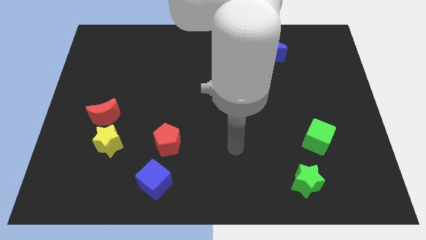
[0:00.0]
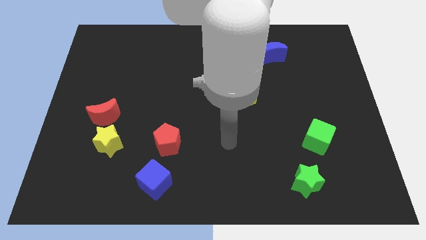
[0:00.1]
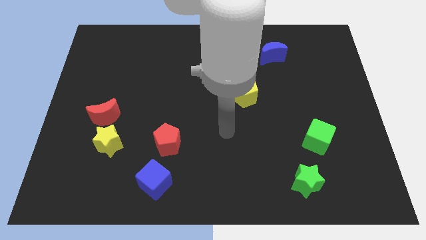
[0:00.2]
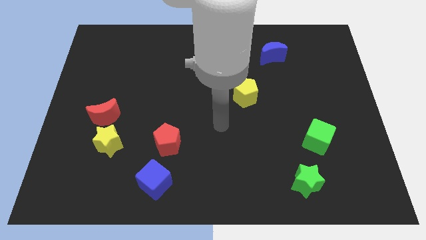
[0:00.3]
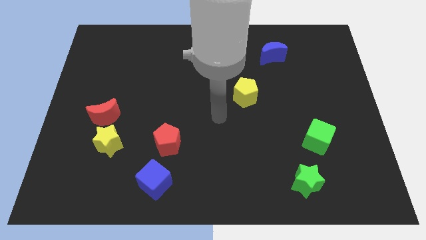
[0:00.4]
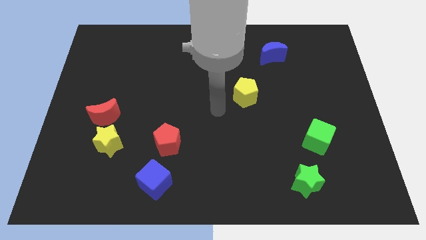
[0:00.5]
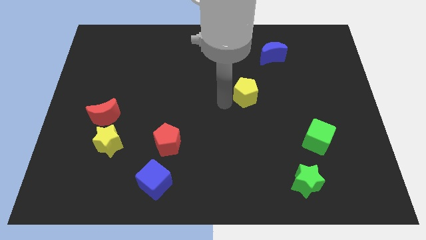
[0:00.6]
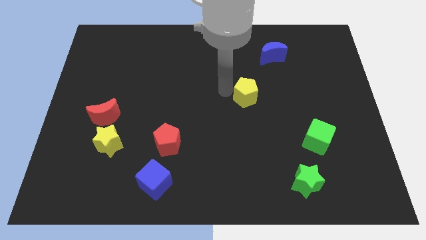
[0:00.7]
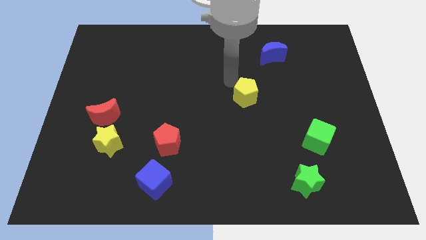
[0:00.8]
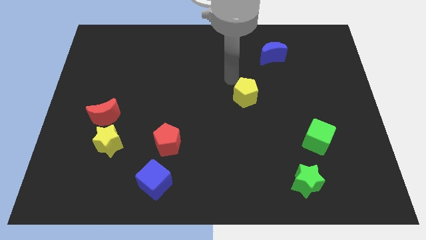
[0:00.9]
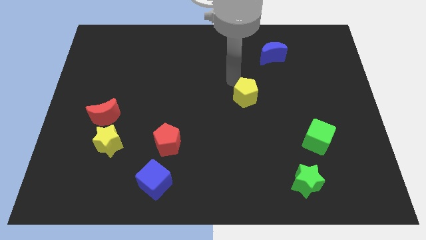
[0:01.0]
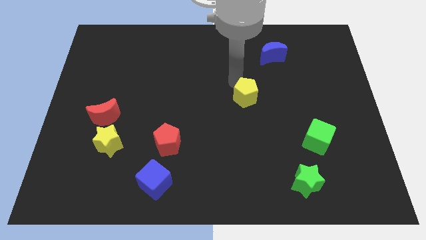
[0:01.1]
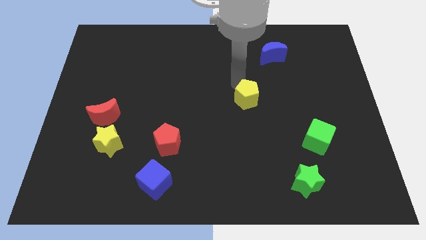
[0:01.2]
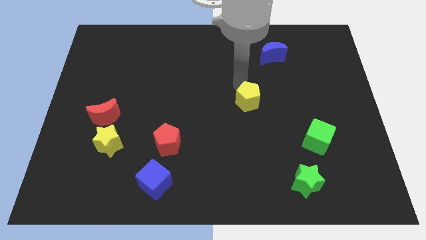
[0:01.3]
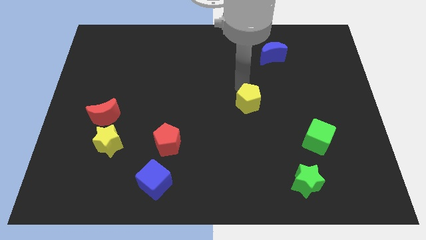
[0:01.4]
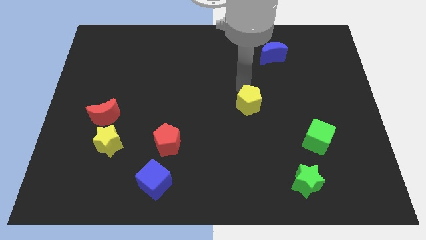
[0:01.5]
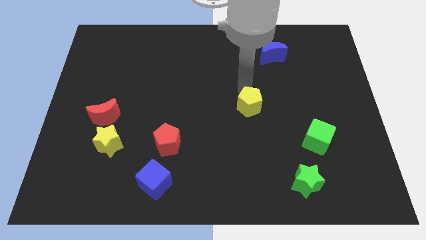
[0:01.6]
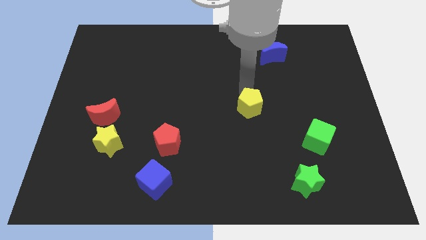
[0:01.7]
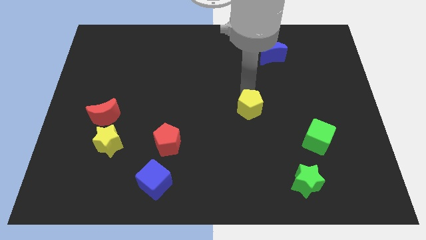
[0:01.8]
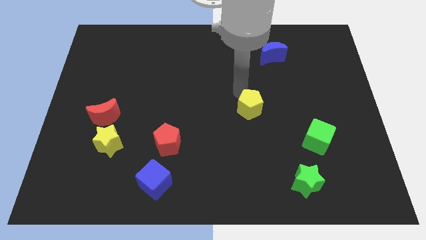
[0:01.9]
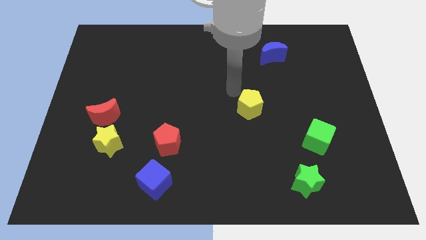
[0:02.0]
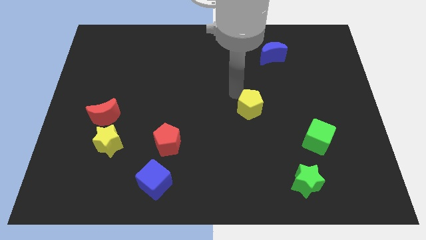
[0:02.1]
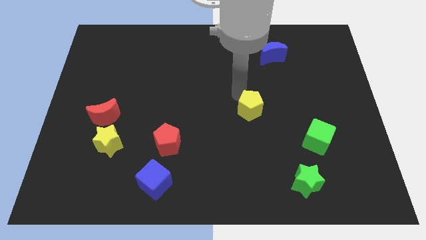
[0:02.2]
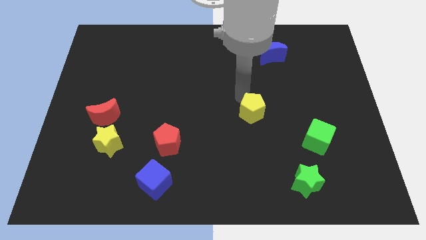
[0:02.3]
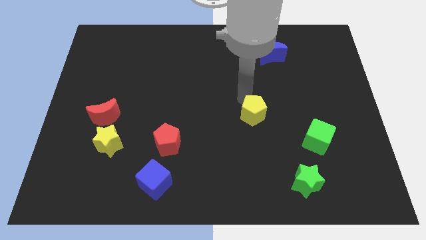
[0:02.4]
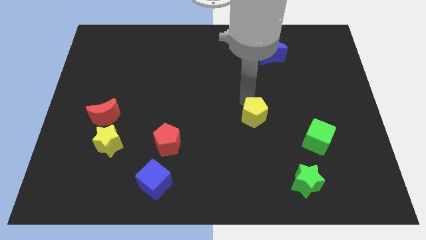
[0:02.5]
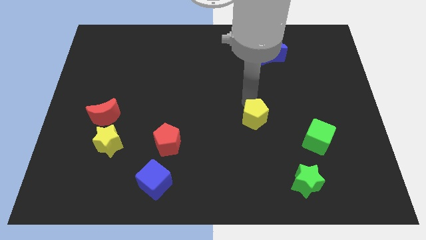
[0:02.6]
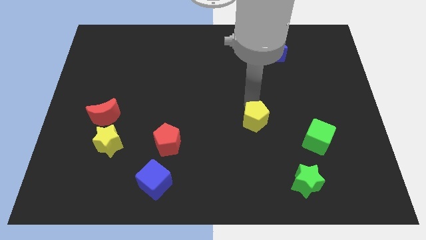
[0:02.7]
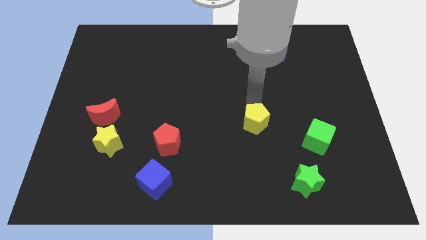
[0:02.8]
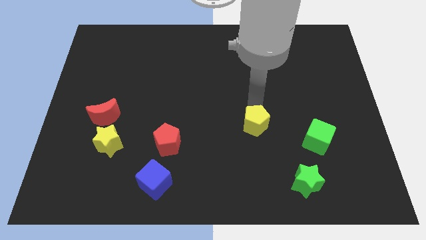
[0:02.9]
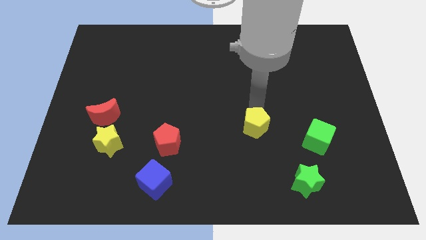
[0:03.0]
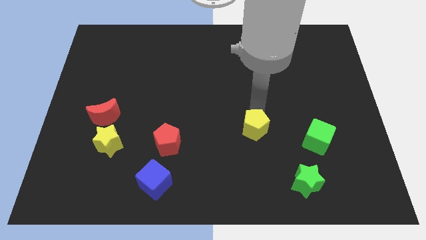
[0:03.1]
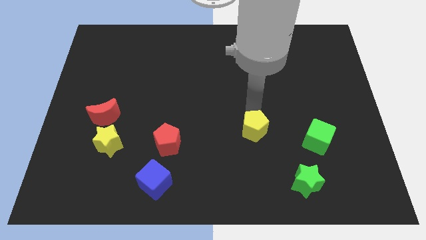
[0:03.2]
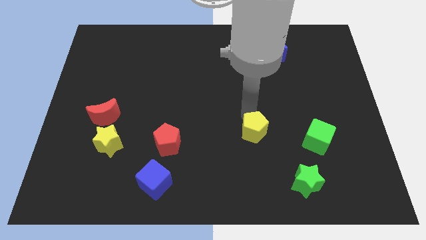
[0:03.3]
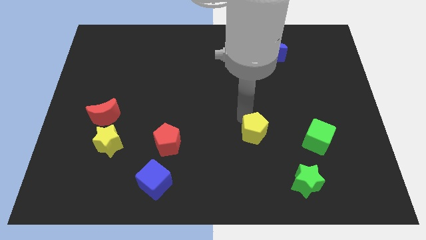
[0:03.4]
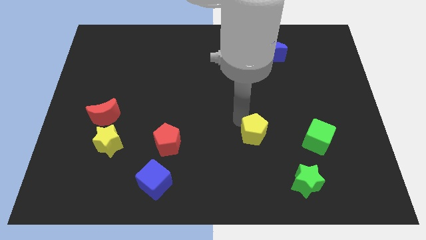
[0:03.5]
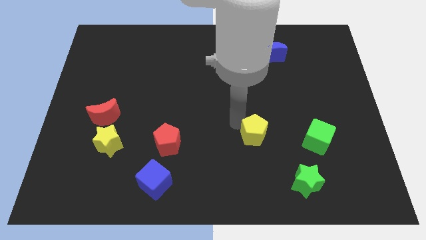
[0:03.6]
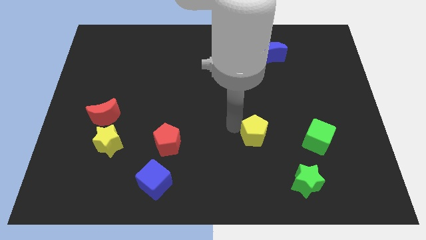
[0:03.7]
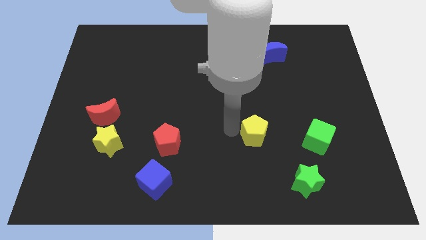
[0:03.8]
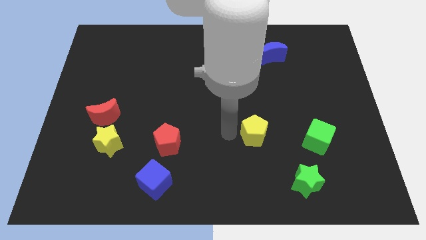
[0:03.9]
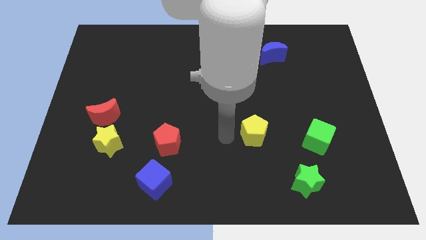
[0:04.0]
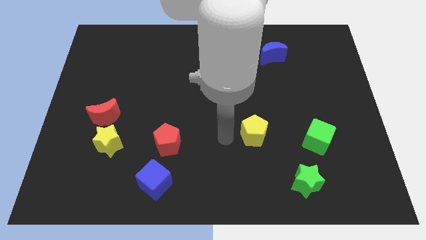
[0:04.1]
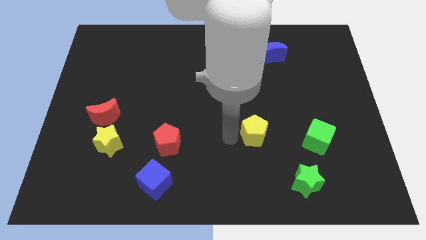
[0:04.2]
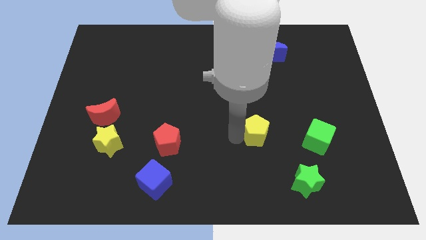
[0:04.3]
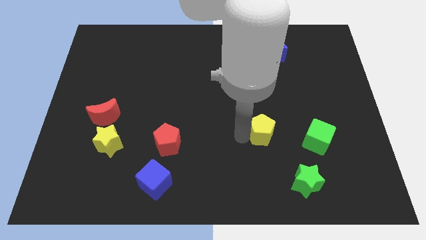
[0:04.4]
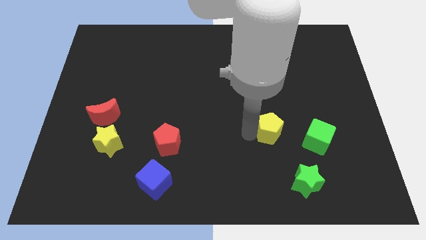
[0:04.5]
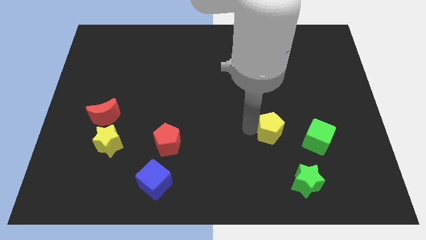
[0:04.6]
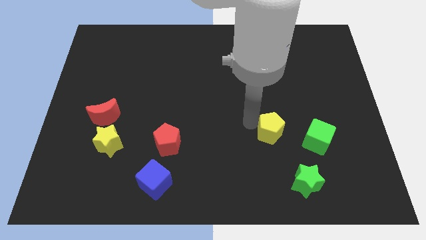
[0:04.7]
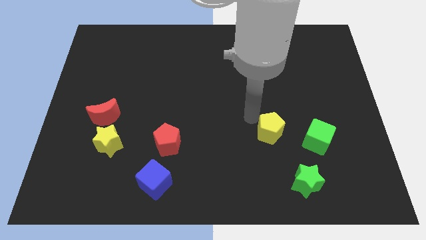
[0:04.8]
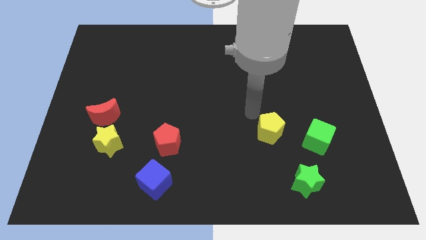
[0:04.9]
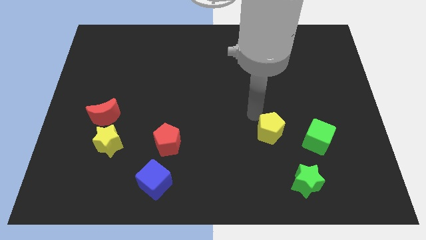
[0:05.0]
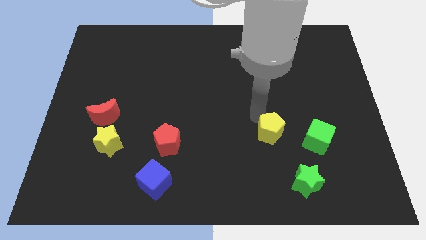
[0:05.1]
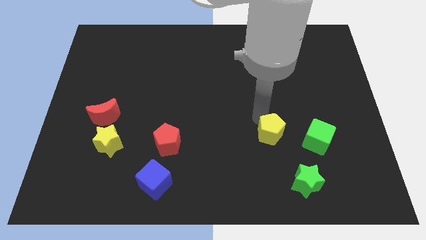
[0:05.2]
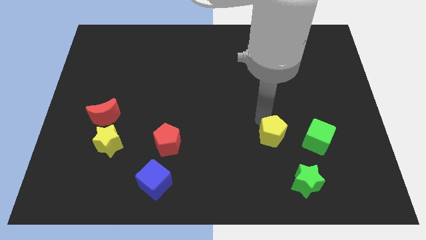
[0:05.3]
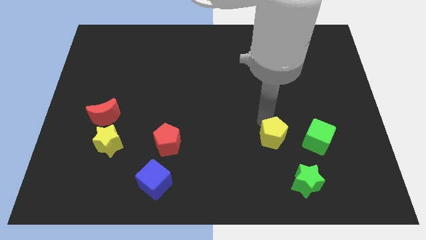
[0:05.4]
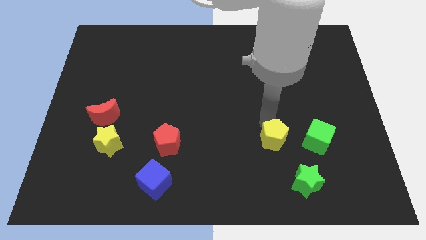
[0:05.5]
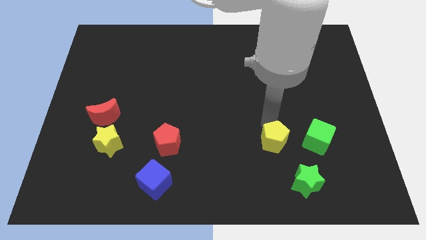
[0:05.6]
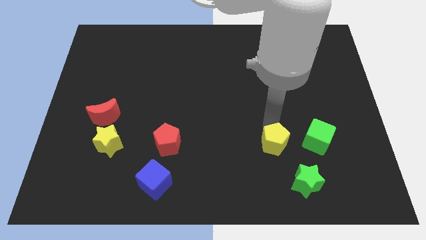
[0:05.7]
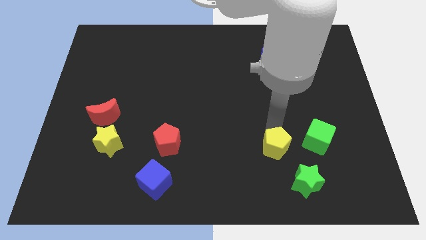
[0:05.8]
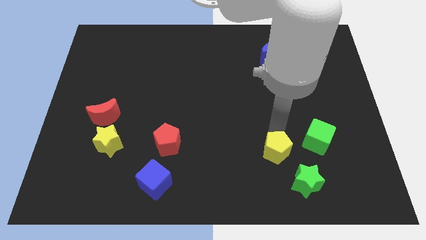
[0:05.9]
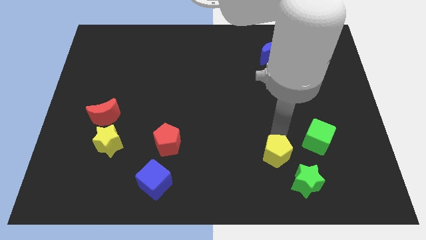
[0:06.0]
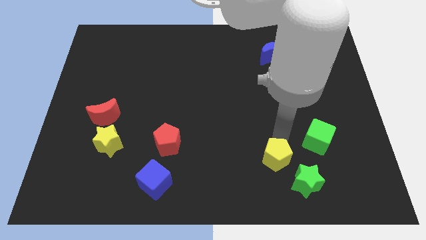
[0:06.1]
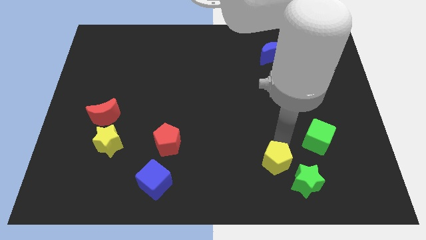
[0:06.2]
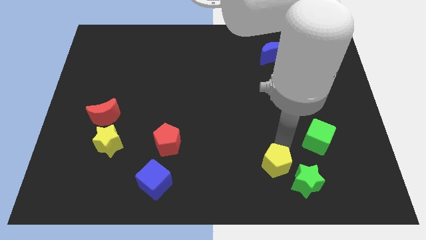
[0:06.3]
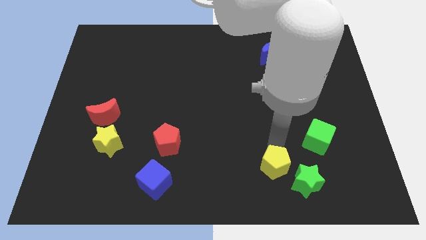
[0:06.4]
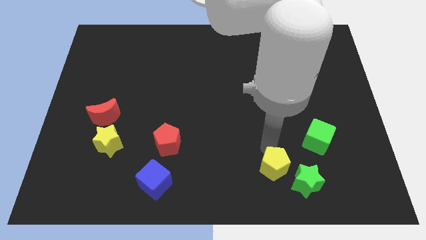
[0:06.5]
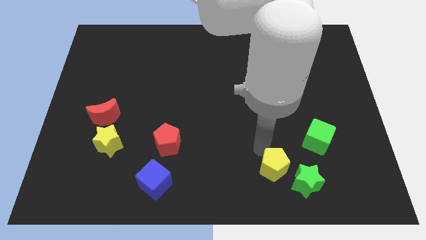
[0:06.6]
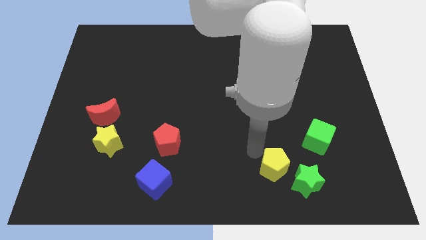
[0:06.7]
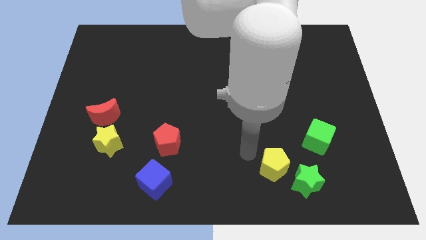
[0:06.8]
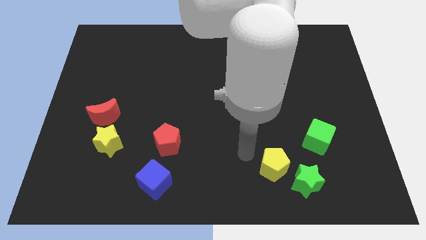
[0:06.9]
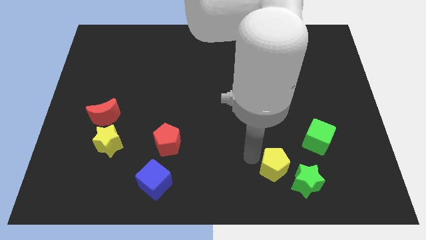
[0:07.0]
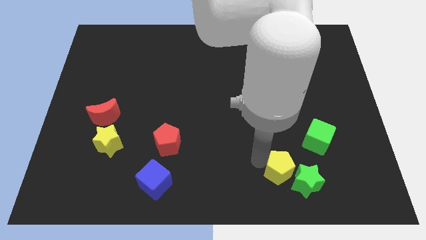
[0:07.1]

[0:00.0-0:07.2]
put the yellow pentagon towards the green star
